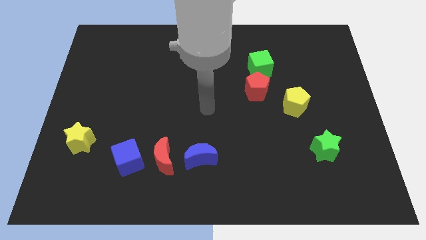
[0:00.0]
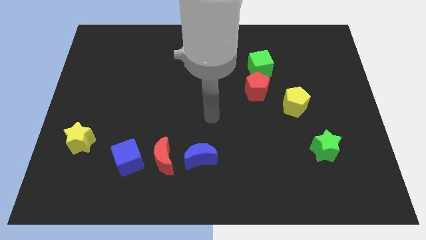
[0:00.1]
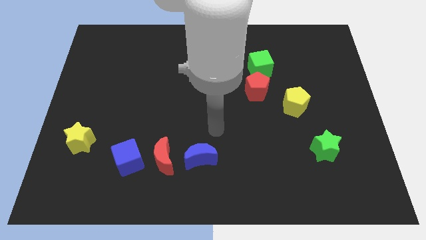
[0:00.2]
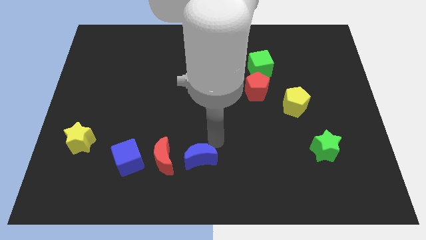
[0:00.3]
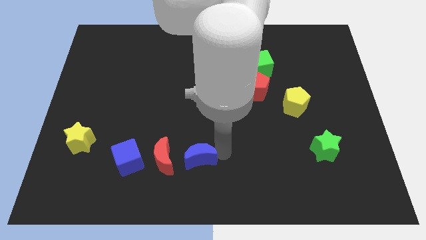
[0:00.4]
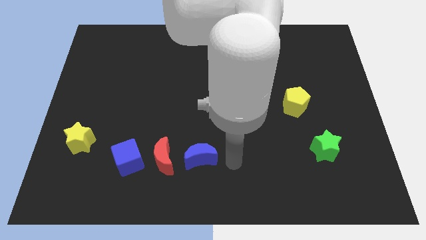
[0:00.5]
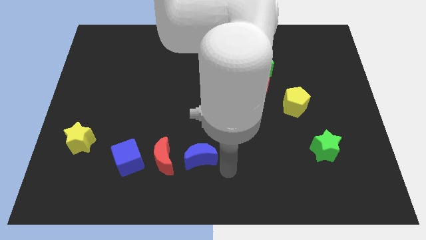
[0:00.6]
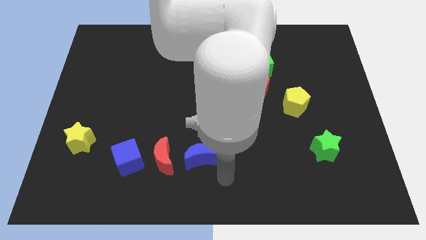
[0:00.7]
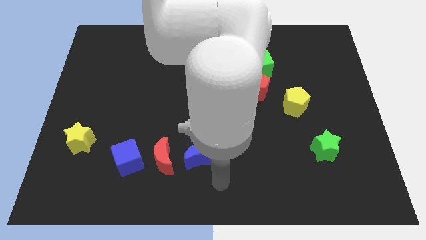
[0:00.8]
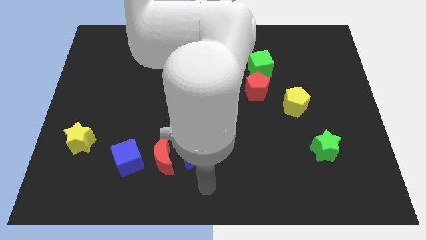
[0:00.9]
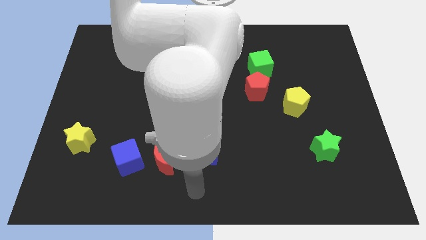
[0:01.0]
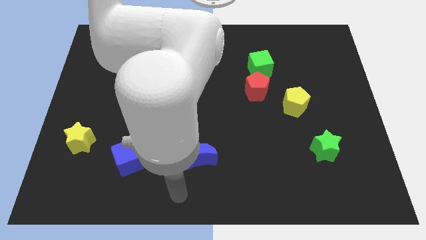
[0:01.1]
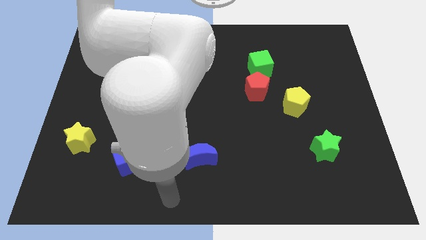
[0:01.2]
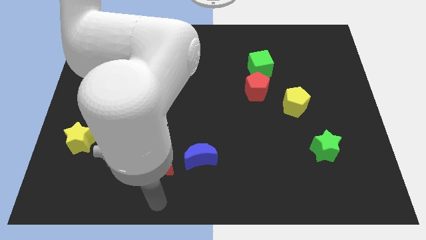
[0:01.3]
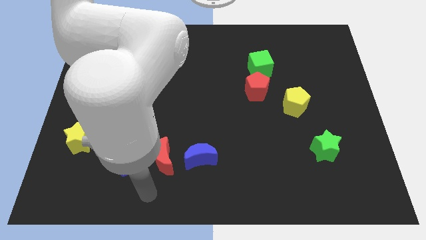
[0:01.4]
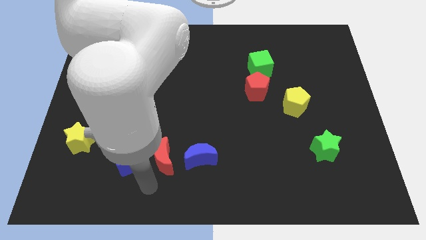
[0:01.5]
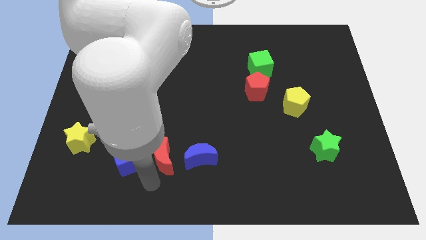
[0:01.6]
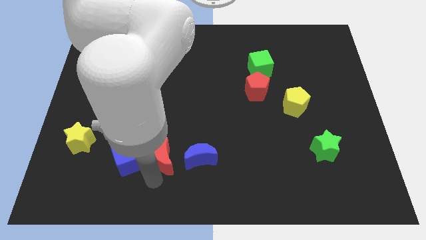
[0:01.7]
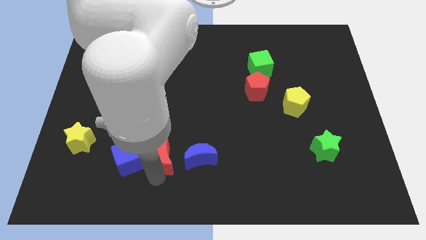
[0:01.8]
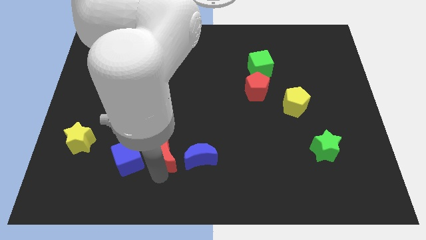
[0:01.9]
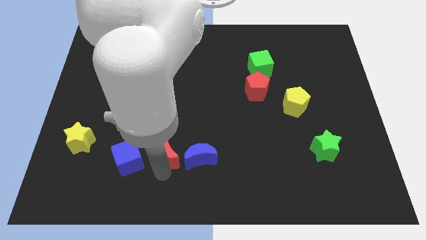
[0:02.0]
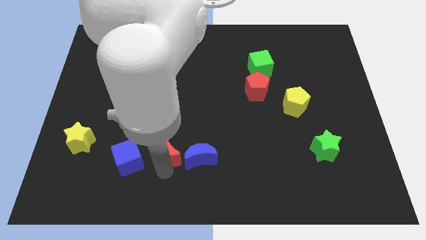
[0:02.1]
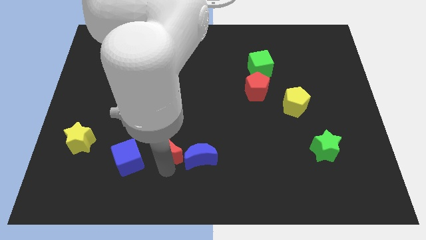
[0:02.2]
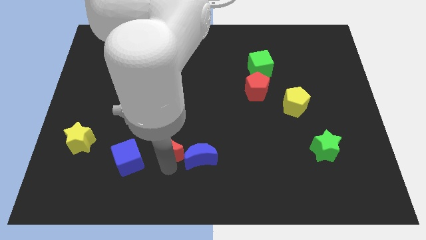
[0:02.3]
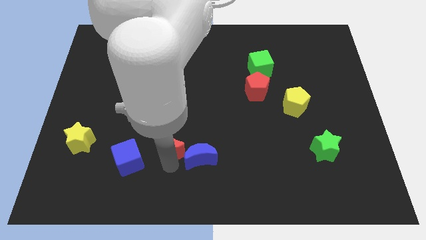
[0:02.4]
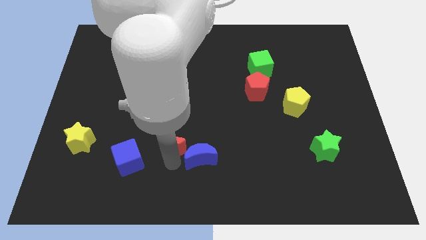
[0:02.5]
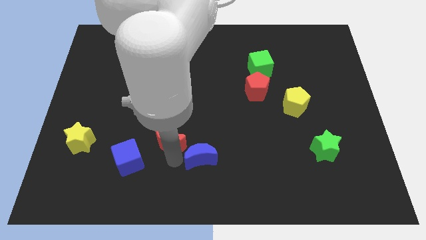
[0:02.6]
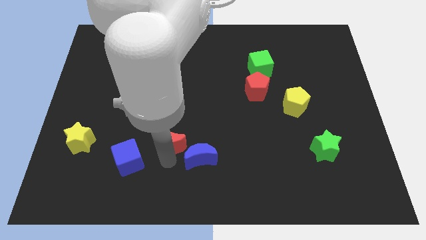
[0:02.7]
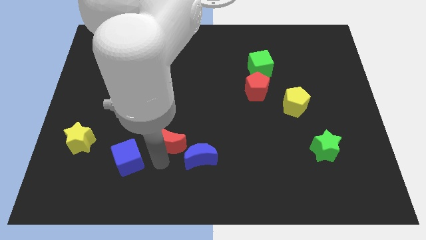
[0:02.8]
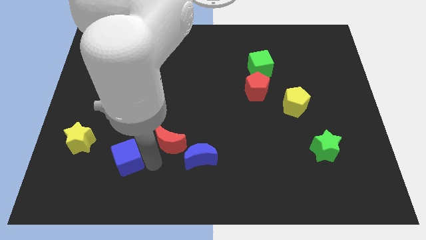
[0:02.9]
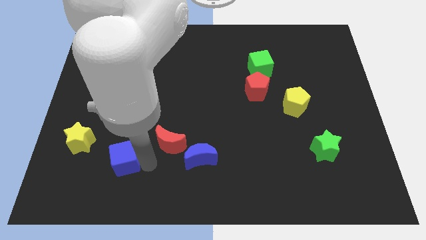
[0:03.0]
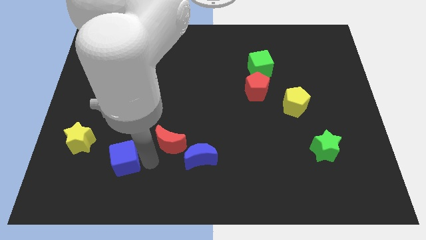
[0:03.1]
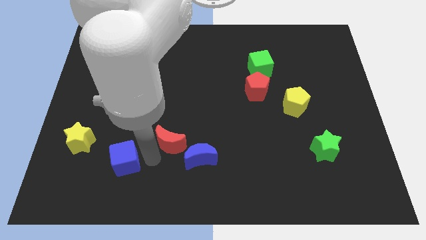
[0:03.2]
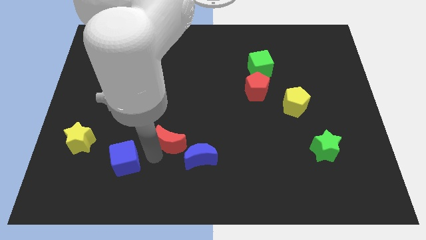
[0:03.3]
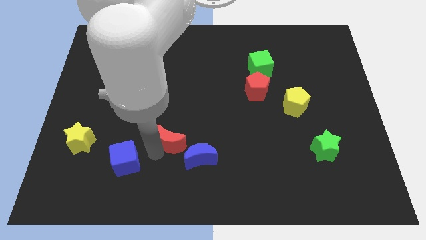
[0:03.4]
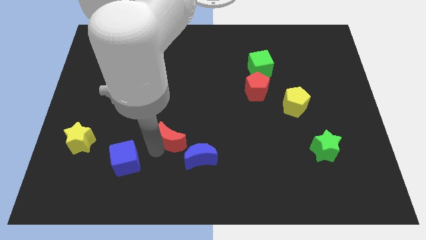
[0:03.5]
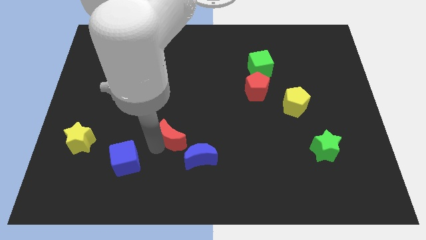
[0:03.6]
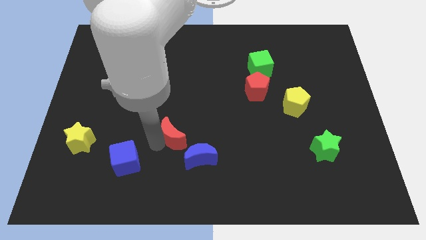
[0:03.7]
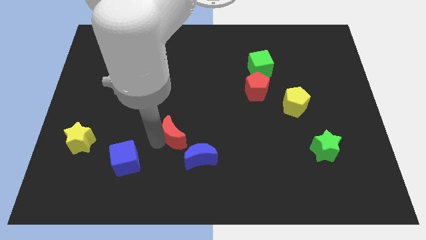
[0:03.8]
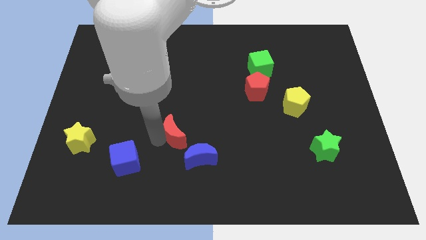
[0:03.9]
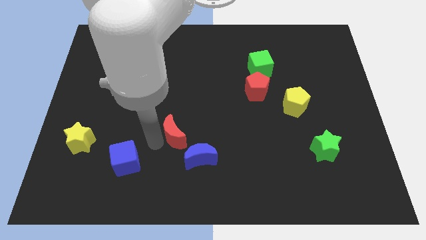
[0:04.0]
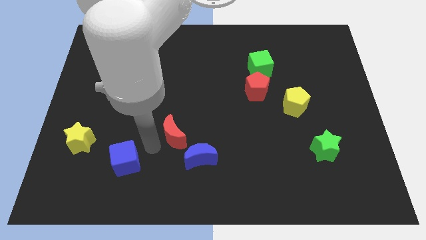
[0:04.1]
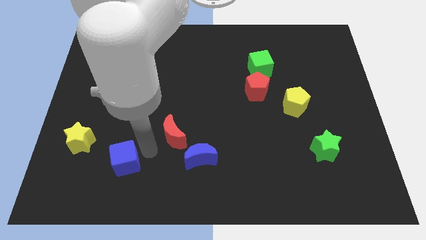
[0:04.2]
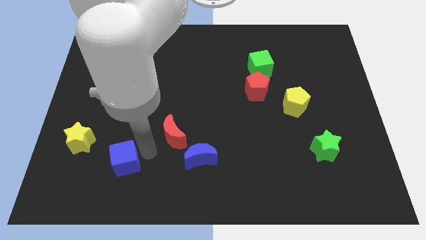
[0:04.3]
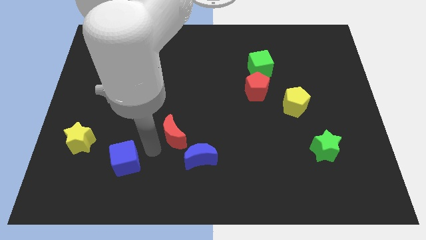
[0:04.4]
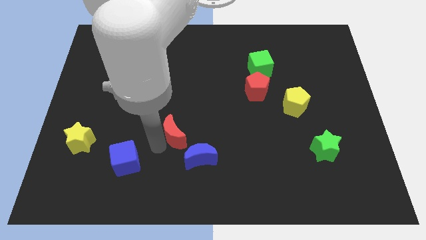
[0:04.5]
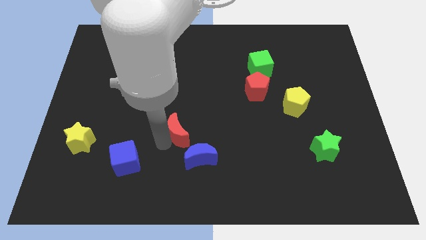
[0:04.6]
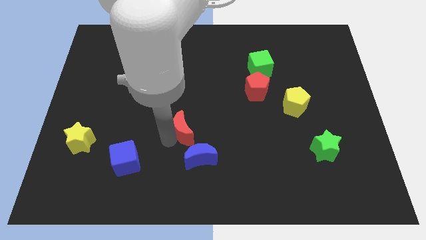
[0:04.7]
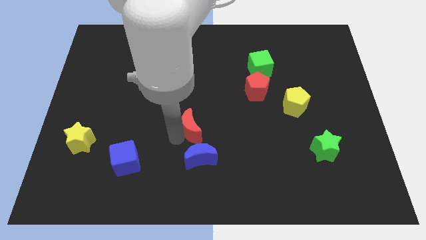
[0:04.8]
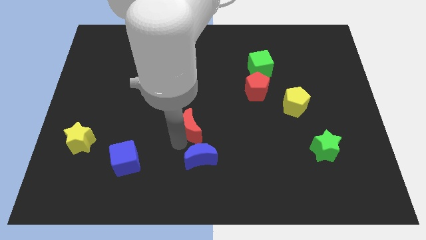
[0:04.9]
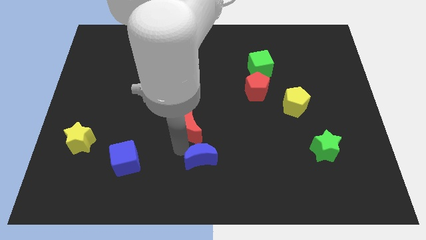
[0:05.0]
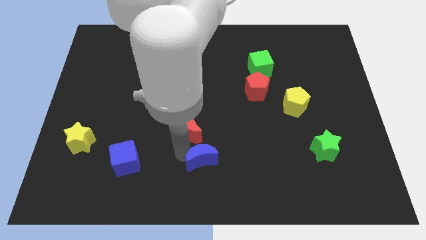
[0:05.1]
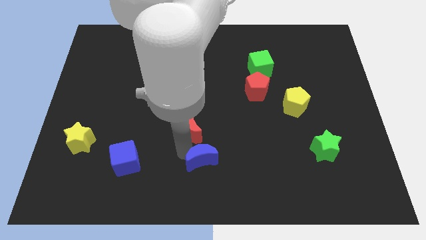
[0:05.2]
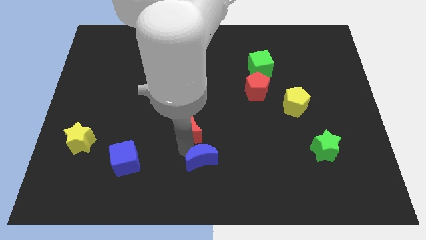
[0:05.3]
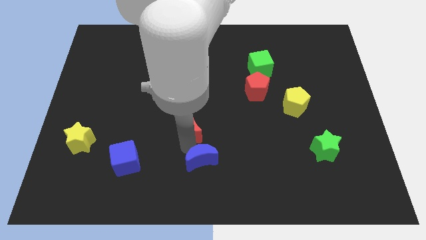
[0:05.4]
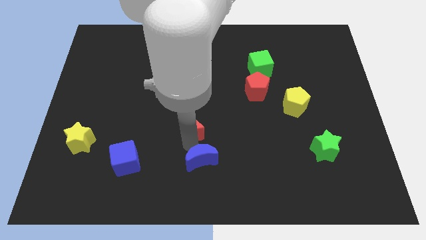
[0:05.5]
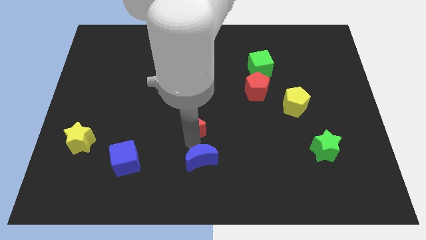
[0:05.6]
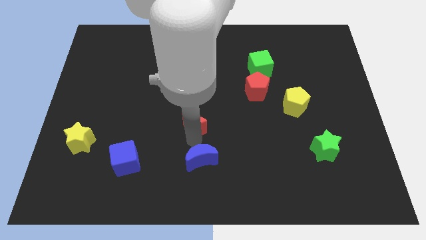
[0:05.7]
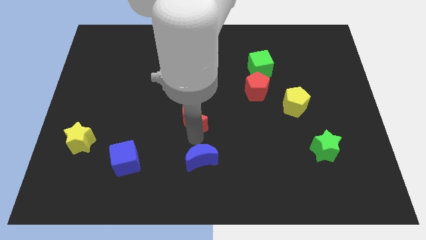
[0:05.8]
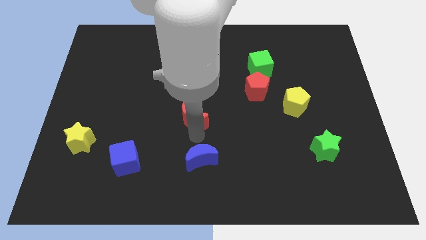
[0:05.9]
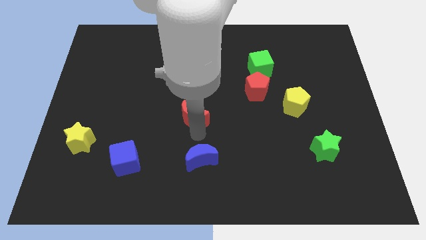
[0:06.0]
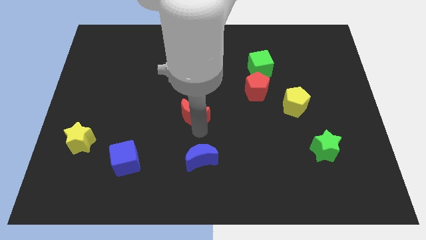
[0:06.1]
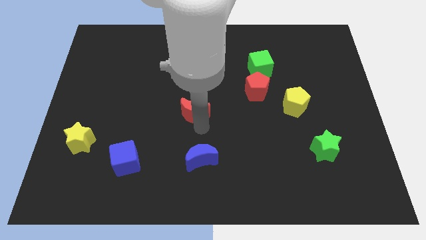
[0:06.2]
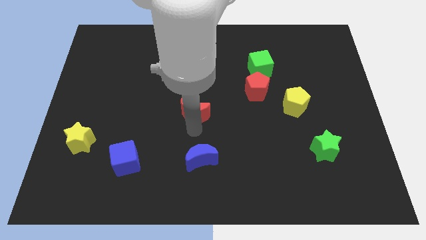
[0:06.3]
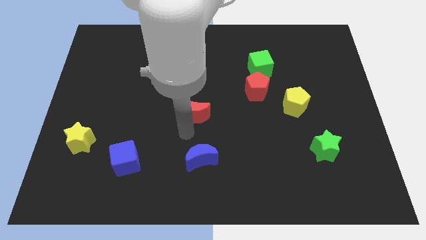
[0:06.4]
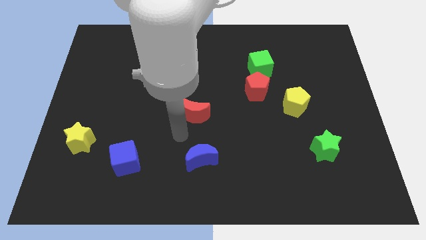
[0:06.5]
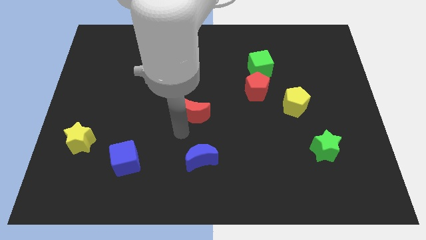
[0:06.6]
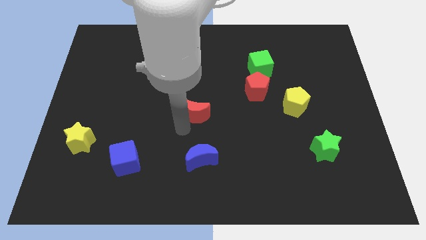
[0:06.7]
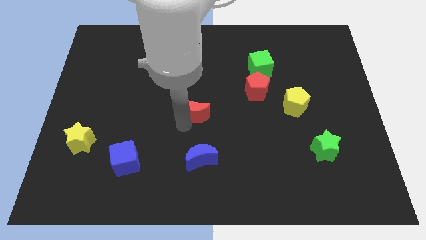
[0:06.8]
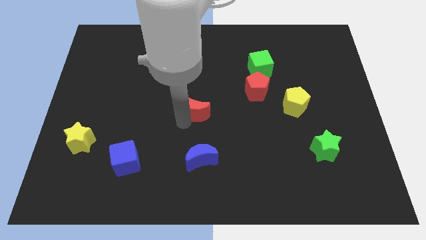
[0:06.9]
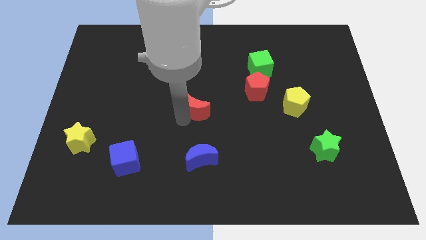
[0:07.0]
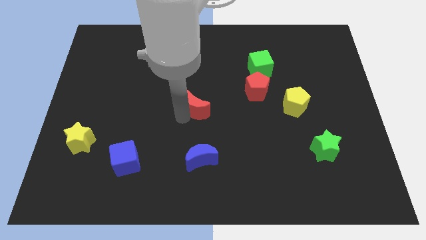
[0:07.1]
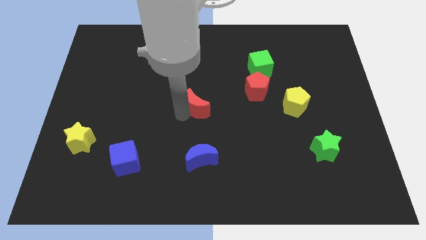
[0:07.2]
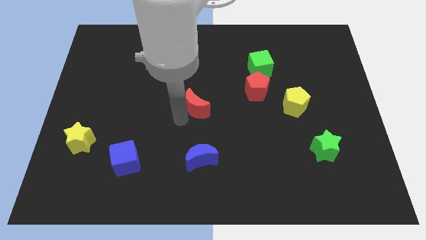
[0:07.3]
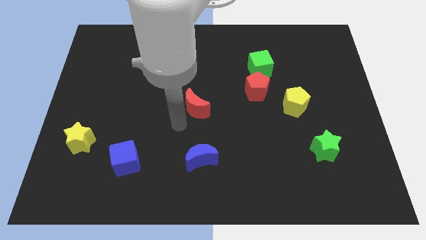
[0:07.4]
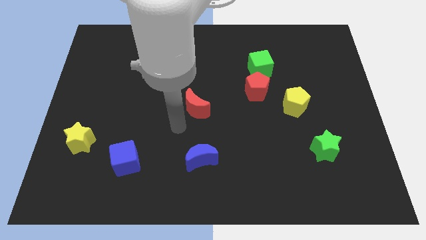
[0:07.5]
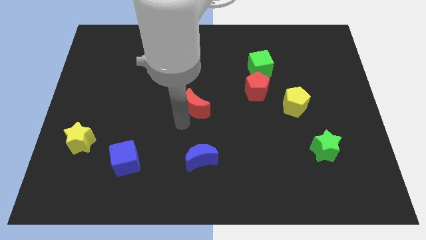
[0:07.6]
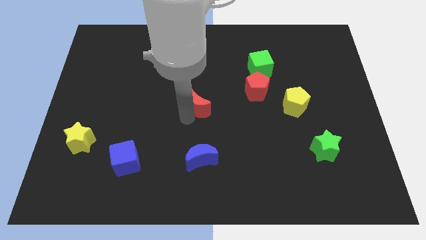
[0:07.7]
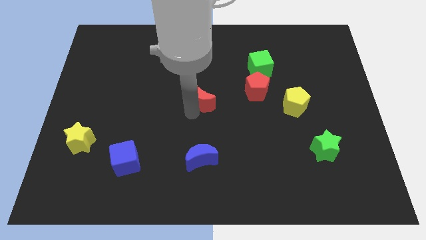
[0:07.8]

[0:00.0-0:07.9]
put the red moon just left of the red pentagon
